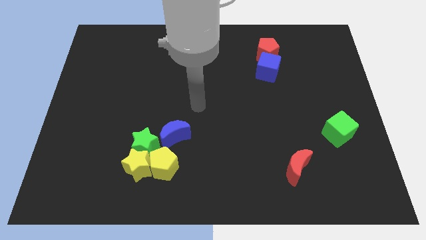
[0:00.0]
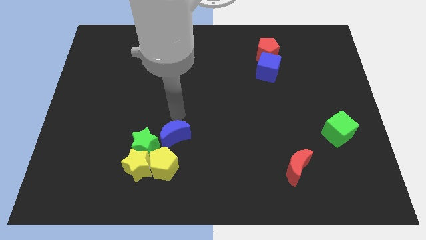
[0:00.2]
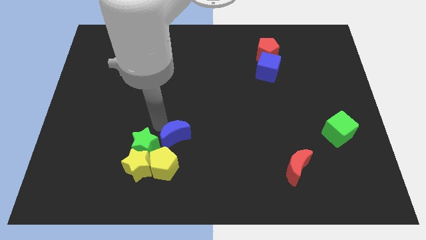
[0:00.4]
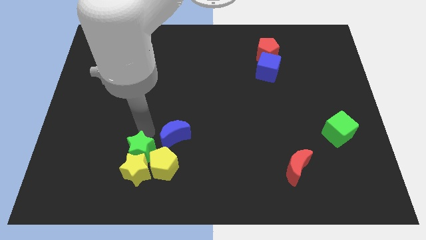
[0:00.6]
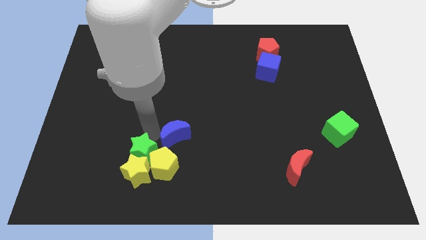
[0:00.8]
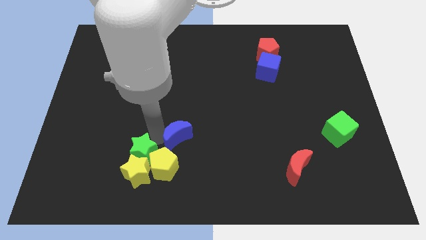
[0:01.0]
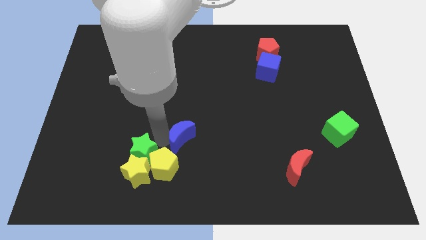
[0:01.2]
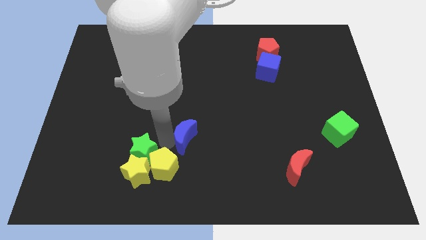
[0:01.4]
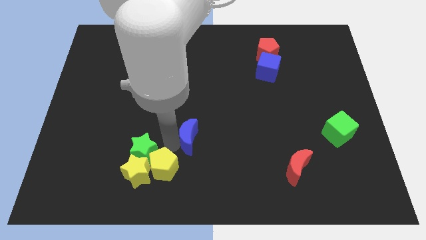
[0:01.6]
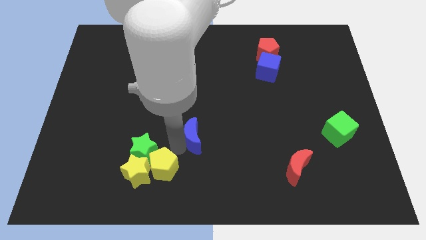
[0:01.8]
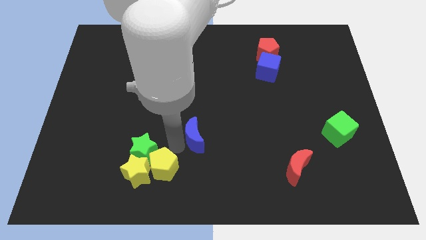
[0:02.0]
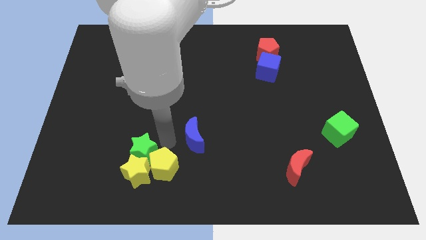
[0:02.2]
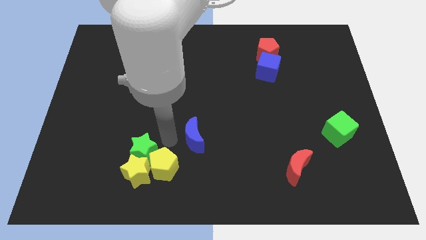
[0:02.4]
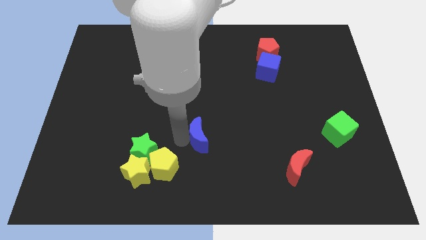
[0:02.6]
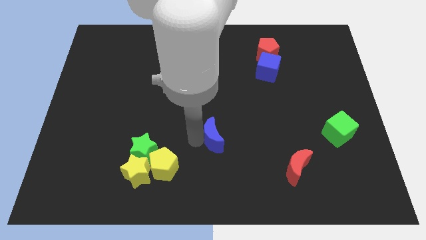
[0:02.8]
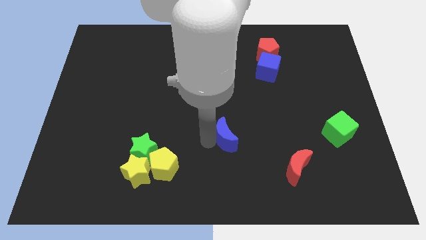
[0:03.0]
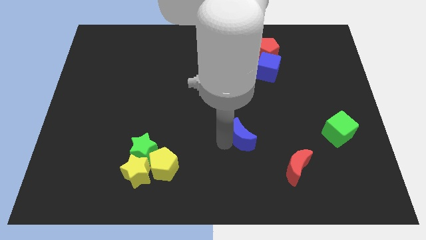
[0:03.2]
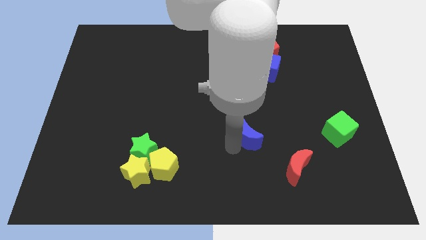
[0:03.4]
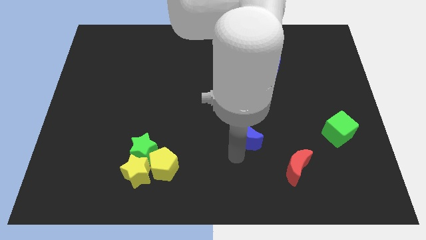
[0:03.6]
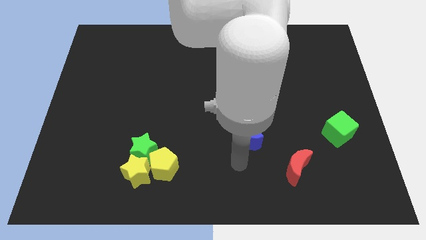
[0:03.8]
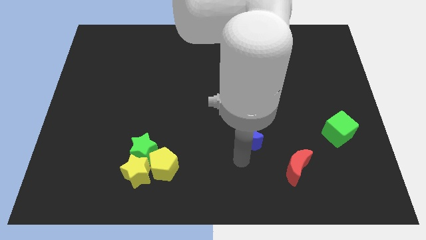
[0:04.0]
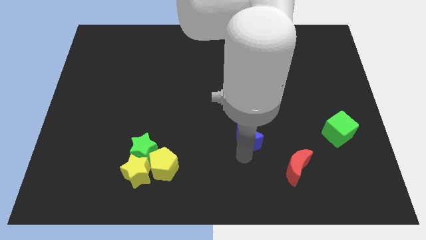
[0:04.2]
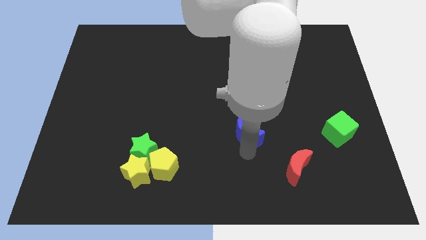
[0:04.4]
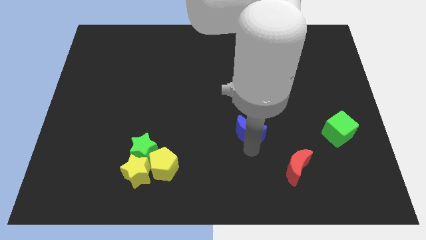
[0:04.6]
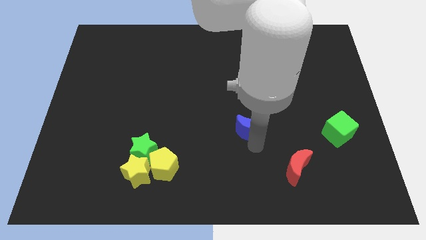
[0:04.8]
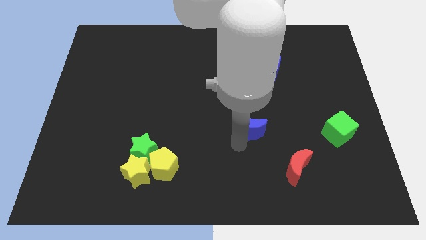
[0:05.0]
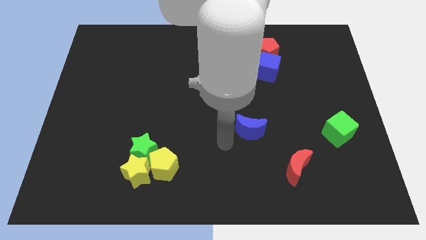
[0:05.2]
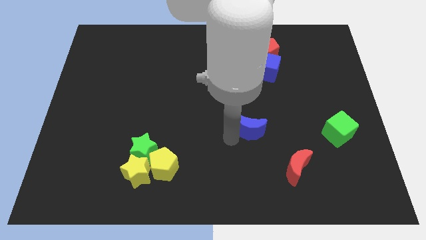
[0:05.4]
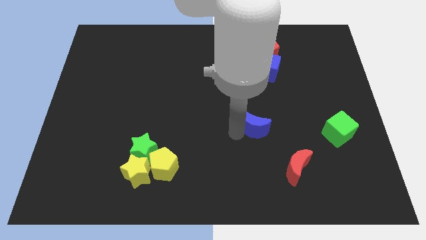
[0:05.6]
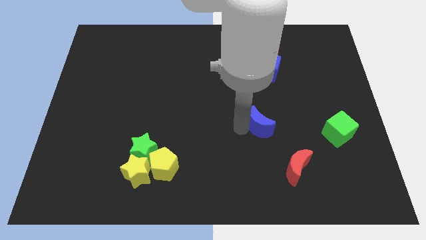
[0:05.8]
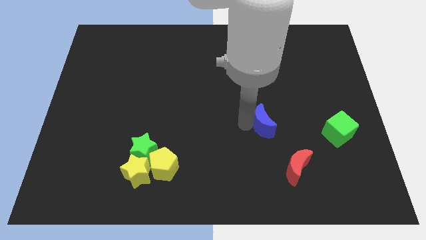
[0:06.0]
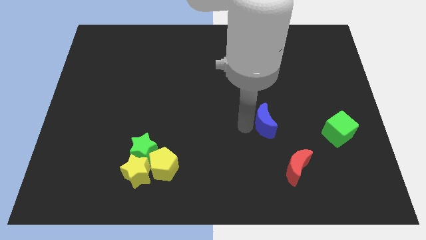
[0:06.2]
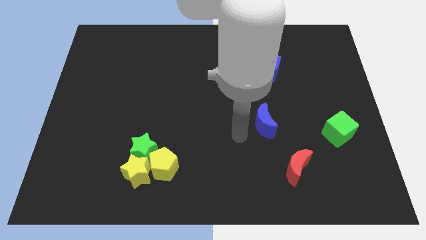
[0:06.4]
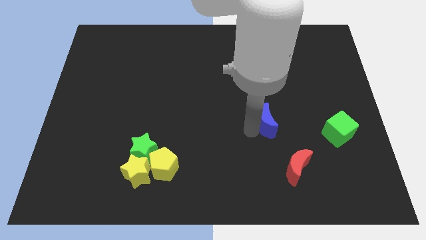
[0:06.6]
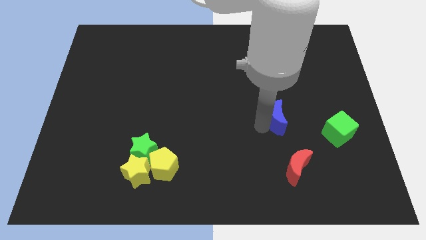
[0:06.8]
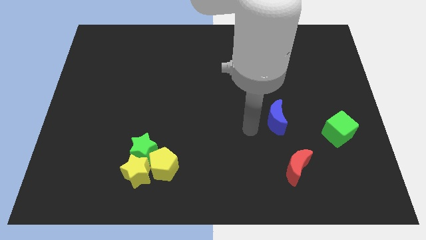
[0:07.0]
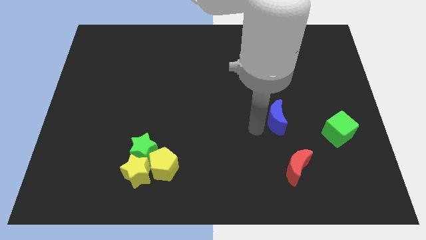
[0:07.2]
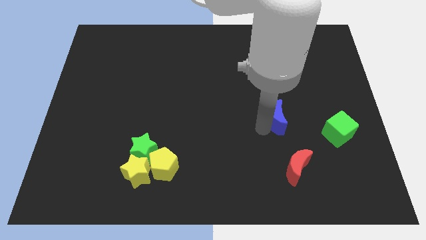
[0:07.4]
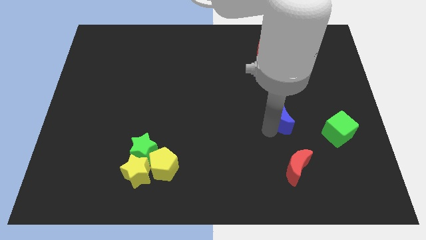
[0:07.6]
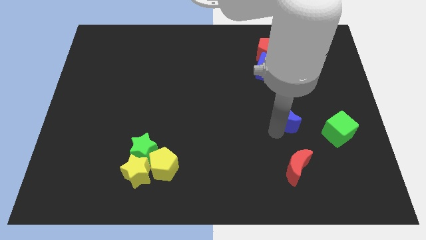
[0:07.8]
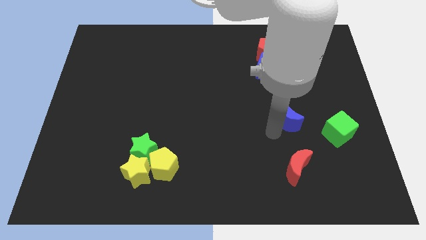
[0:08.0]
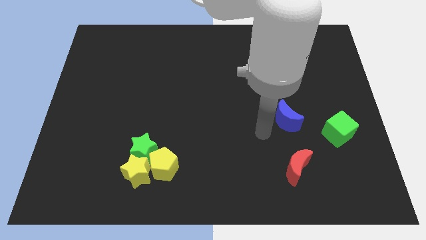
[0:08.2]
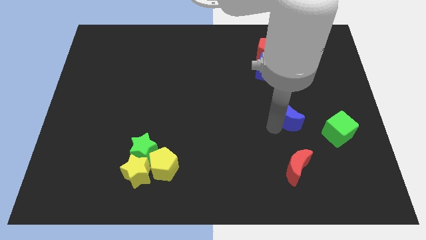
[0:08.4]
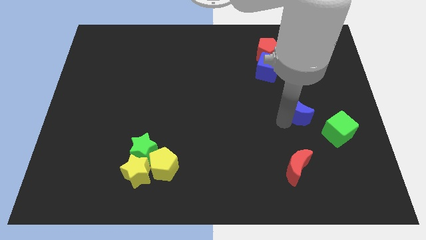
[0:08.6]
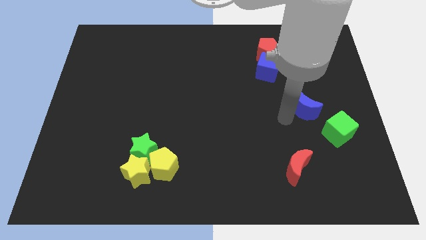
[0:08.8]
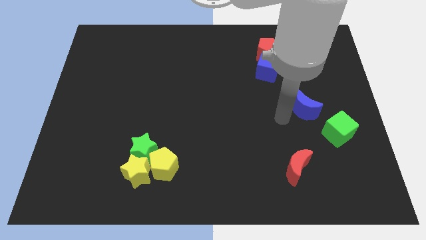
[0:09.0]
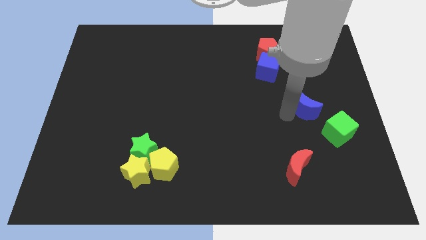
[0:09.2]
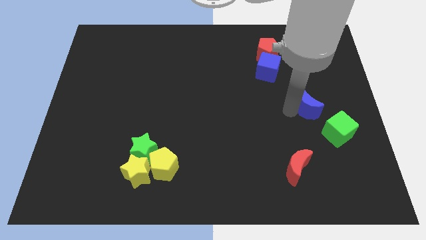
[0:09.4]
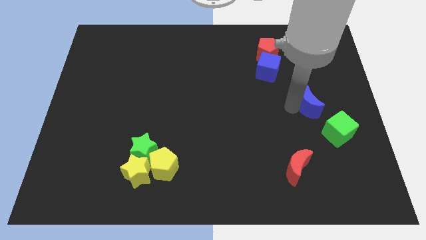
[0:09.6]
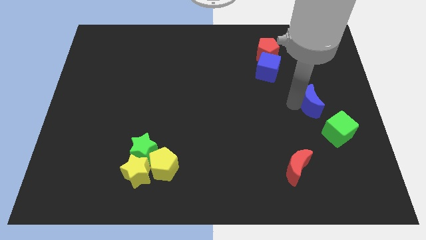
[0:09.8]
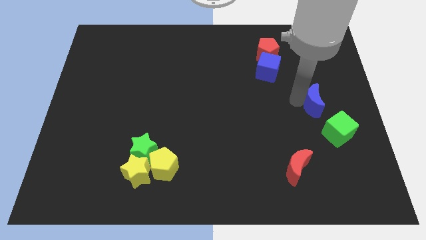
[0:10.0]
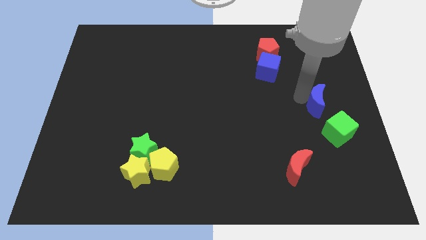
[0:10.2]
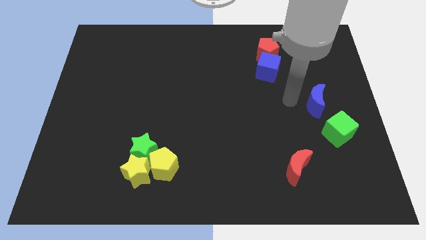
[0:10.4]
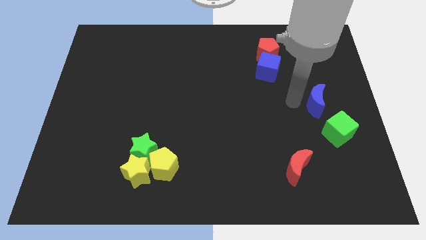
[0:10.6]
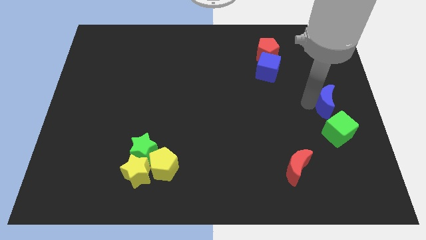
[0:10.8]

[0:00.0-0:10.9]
move the blue moon to the center right

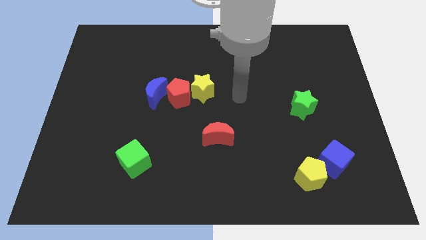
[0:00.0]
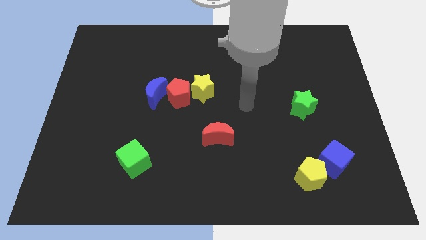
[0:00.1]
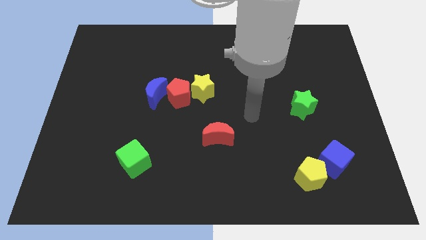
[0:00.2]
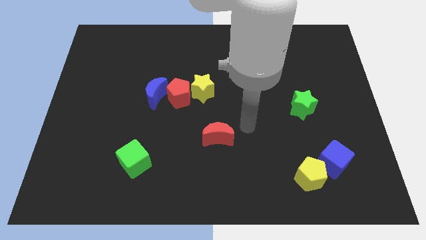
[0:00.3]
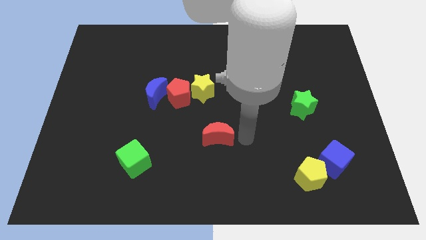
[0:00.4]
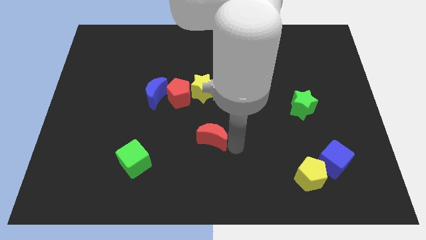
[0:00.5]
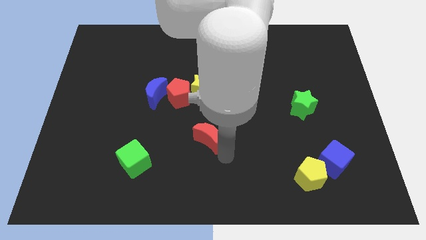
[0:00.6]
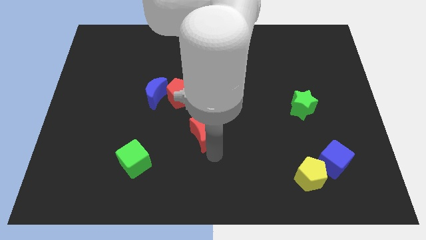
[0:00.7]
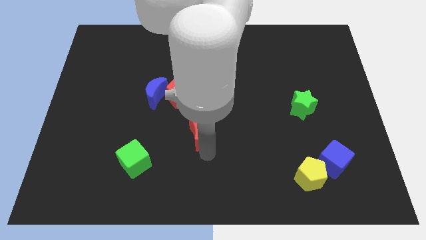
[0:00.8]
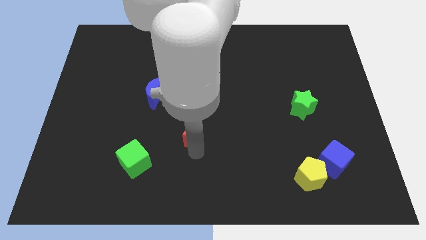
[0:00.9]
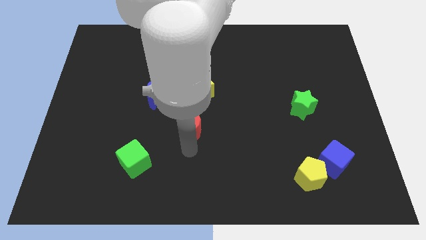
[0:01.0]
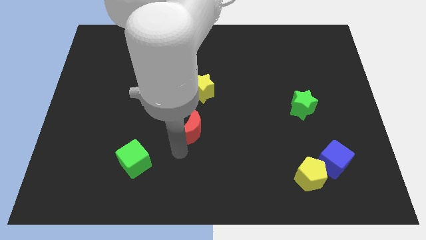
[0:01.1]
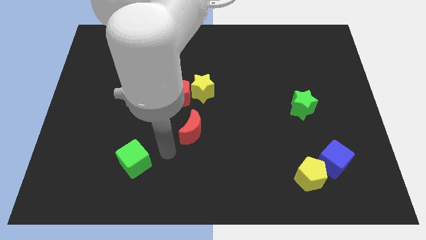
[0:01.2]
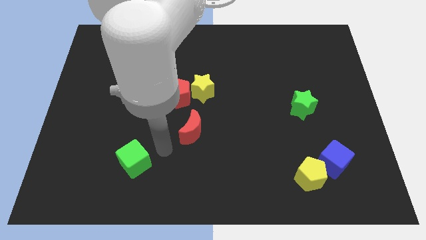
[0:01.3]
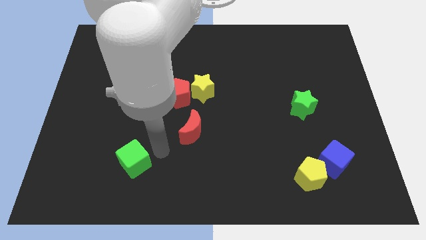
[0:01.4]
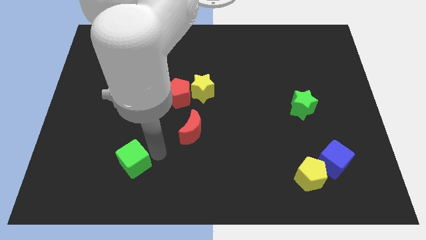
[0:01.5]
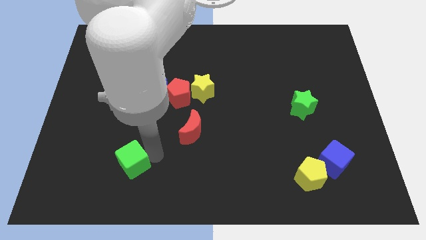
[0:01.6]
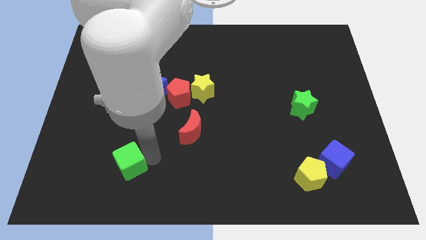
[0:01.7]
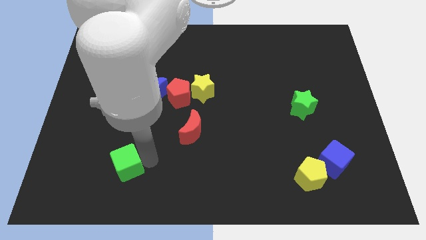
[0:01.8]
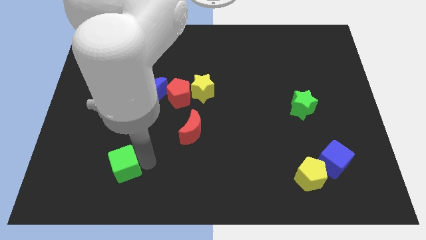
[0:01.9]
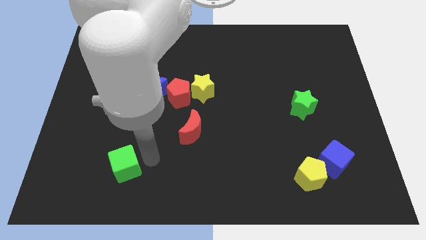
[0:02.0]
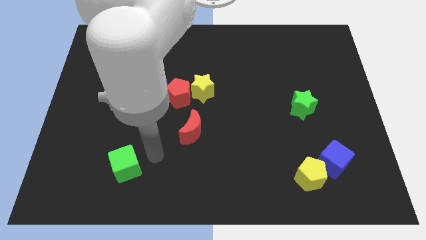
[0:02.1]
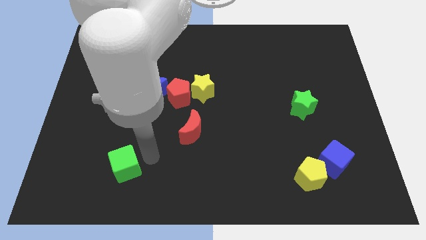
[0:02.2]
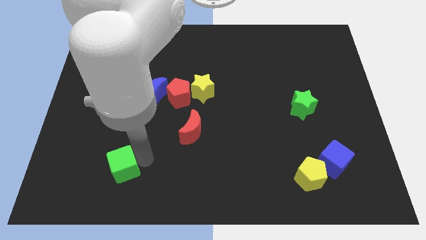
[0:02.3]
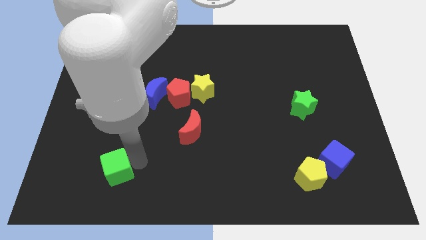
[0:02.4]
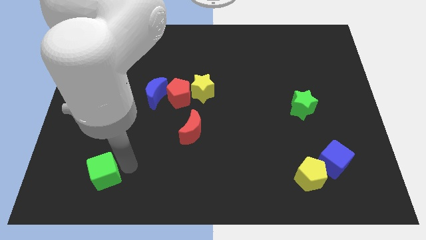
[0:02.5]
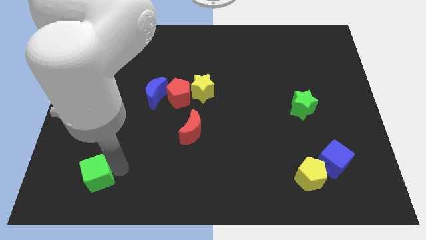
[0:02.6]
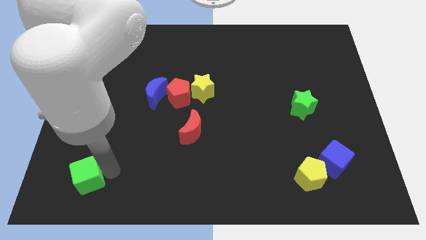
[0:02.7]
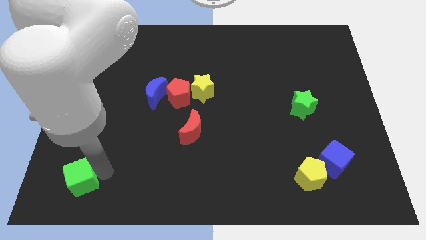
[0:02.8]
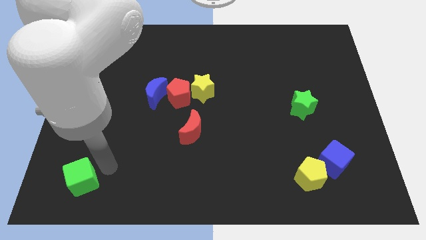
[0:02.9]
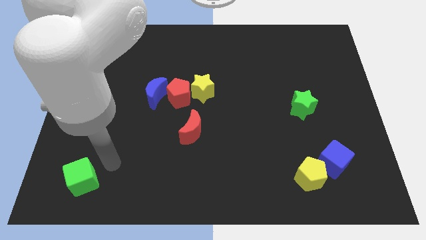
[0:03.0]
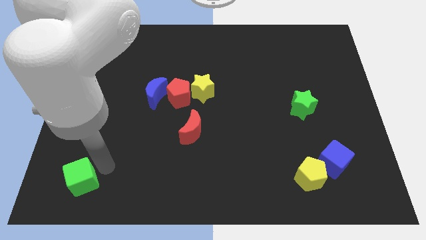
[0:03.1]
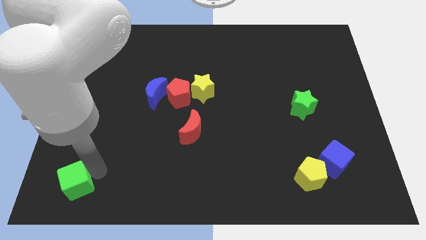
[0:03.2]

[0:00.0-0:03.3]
put the green cube to the bottom left
